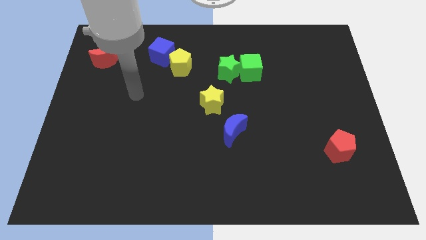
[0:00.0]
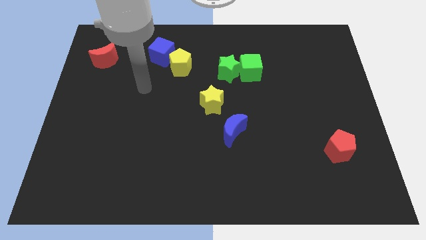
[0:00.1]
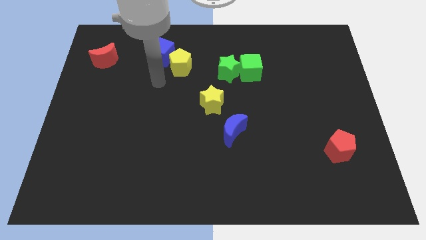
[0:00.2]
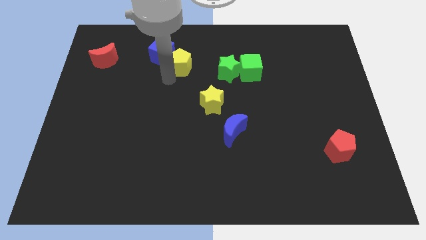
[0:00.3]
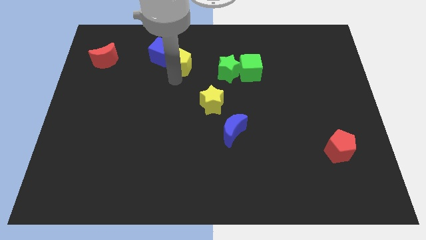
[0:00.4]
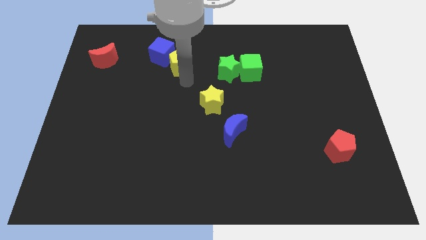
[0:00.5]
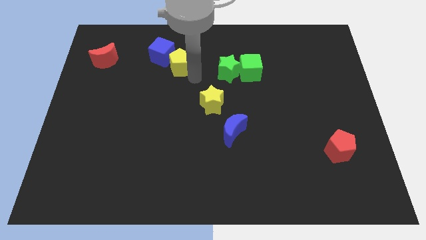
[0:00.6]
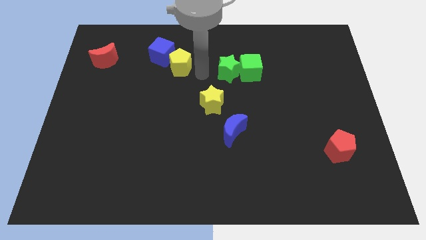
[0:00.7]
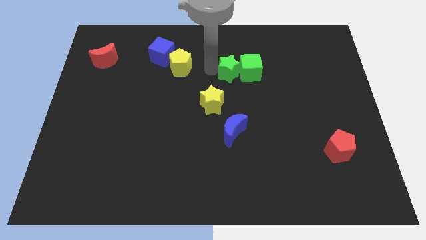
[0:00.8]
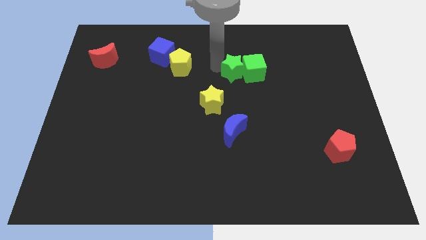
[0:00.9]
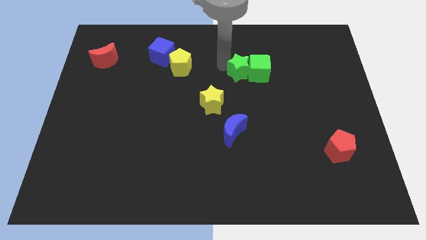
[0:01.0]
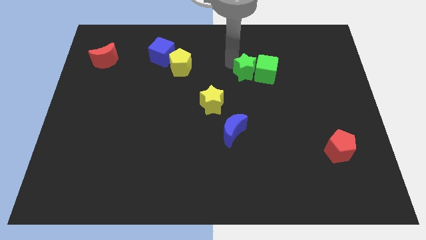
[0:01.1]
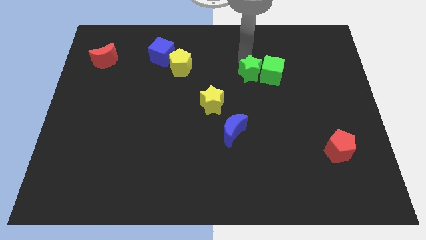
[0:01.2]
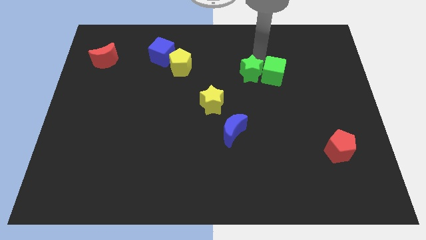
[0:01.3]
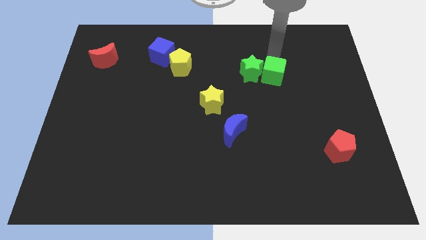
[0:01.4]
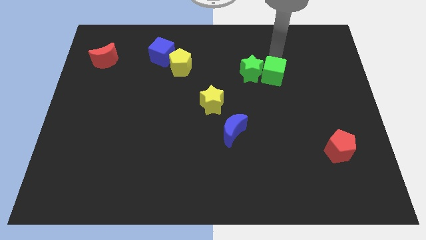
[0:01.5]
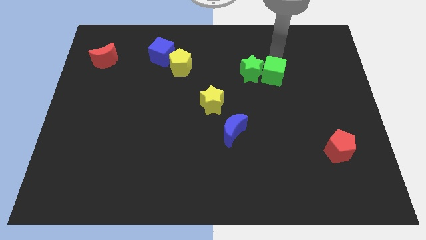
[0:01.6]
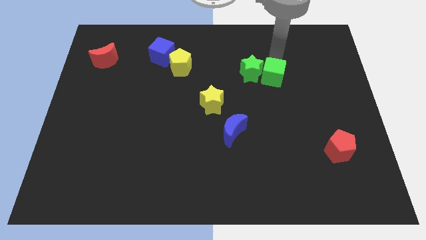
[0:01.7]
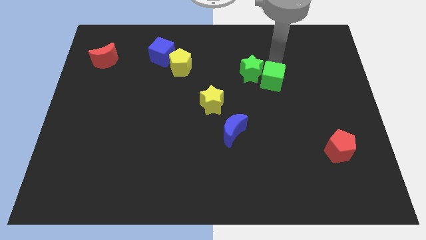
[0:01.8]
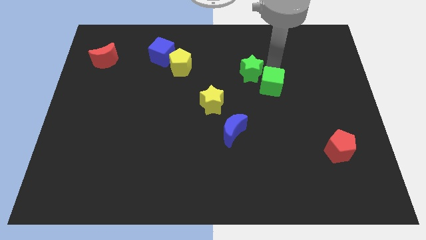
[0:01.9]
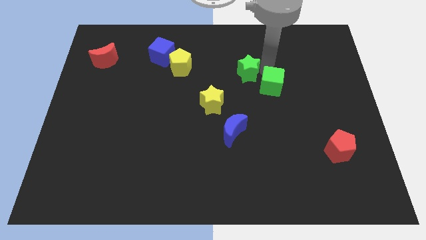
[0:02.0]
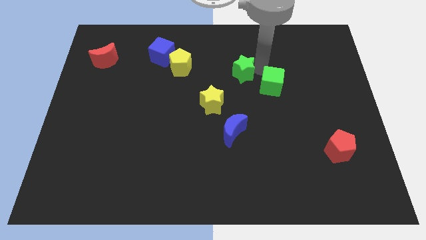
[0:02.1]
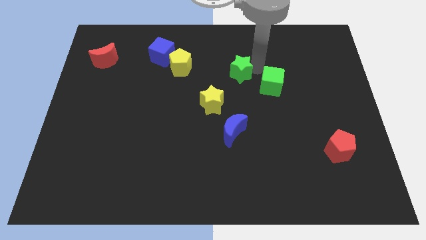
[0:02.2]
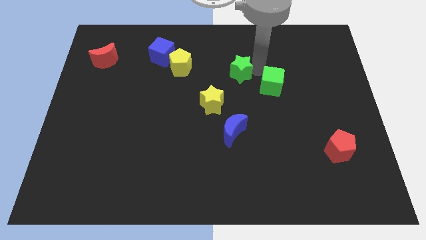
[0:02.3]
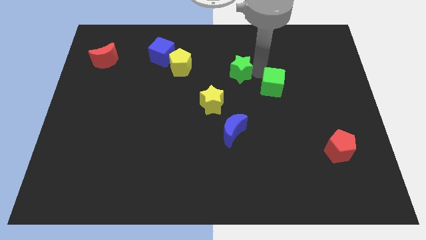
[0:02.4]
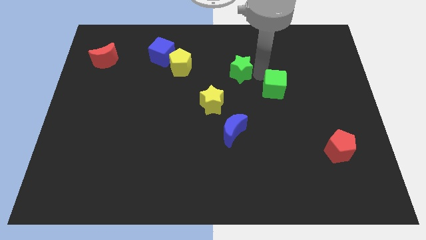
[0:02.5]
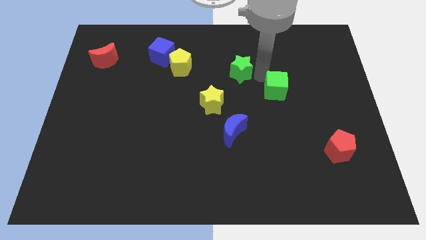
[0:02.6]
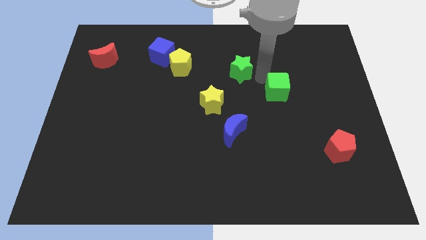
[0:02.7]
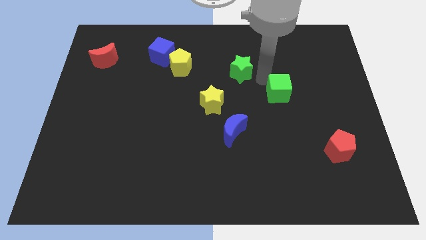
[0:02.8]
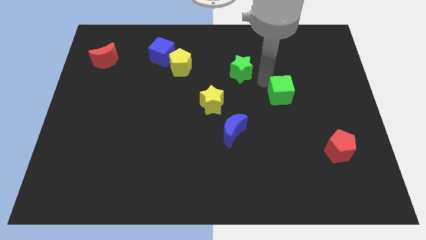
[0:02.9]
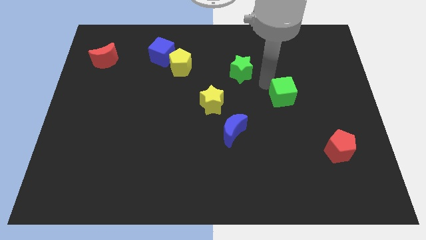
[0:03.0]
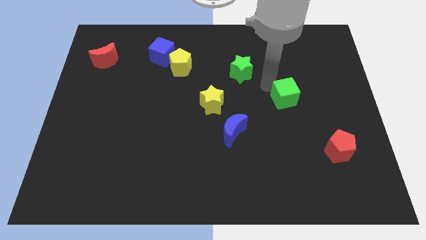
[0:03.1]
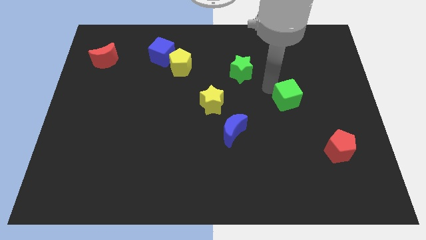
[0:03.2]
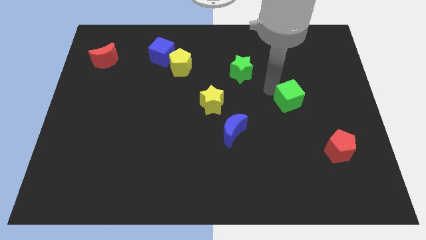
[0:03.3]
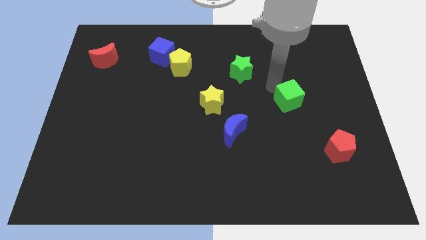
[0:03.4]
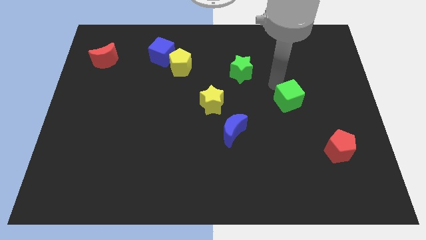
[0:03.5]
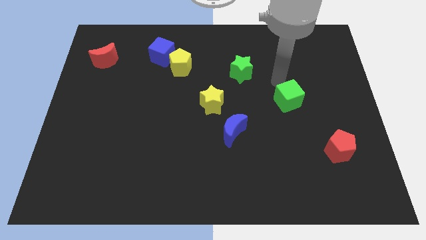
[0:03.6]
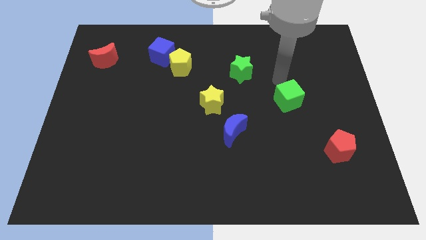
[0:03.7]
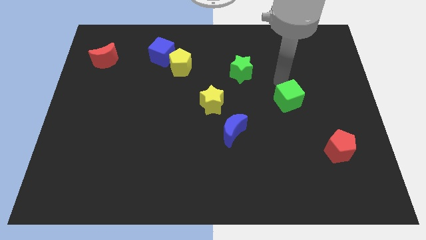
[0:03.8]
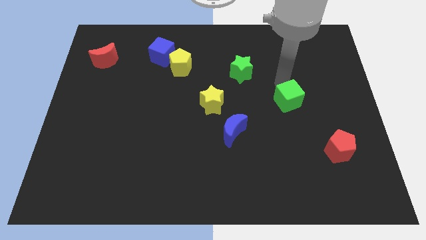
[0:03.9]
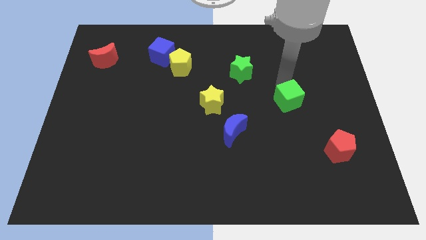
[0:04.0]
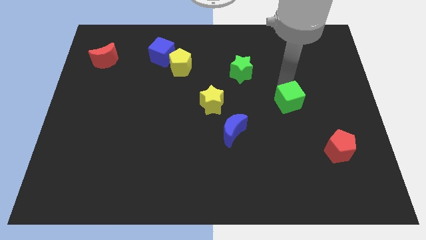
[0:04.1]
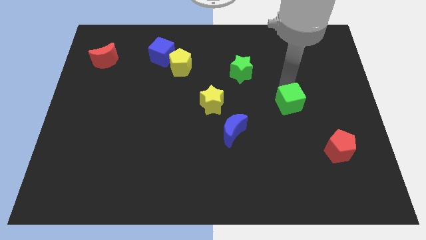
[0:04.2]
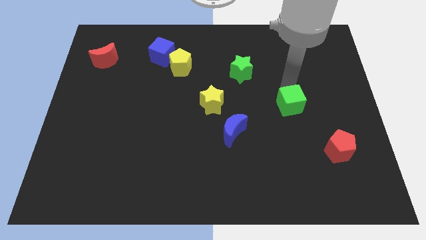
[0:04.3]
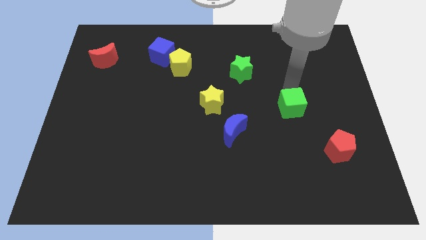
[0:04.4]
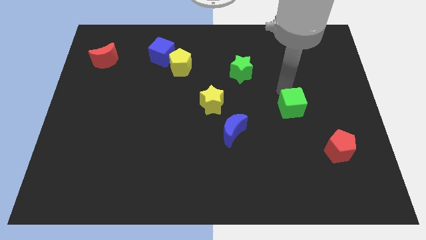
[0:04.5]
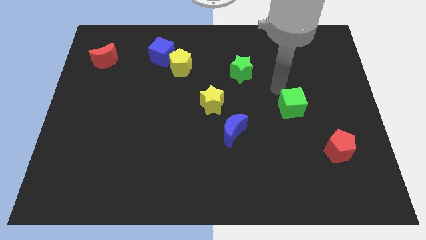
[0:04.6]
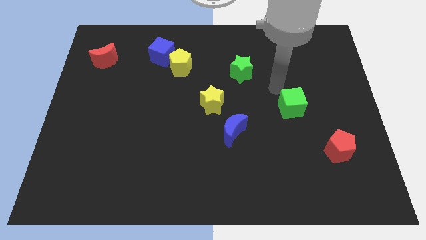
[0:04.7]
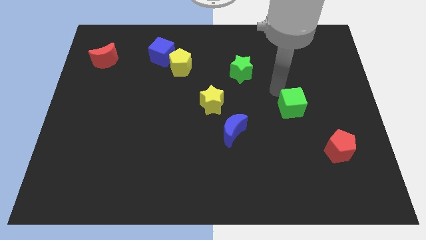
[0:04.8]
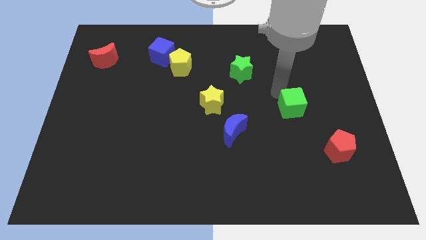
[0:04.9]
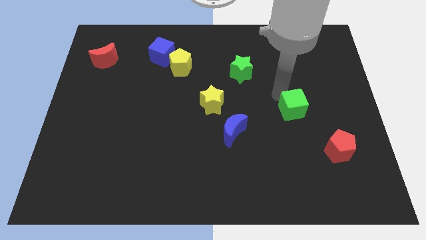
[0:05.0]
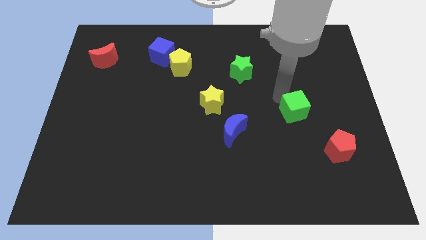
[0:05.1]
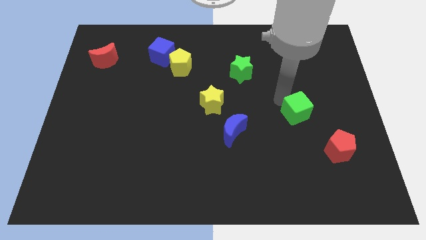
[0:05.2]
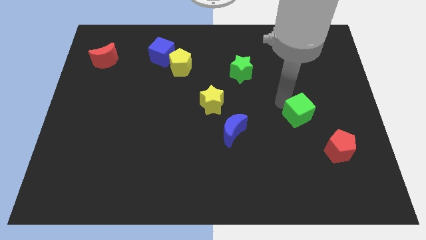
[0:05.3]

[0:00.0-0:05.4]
put the green cube to the top left of the red pentagon
